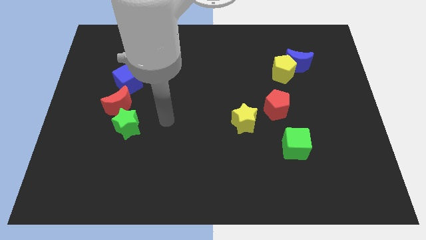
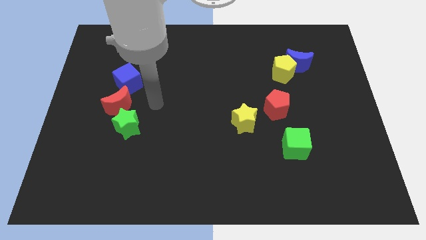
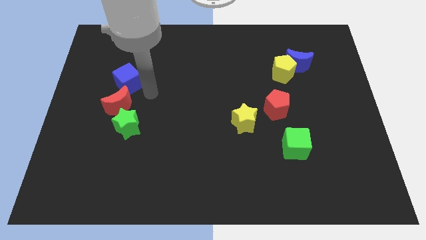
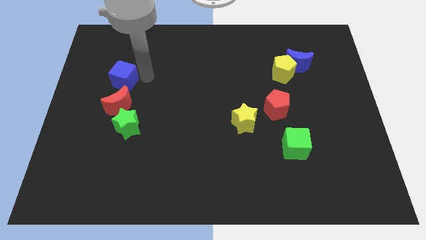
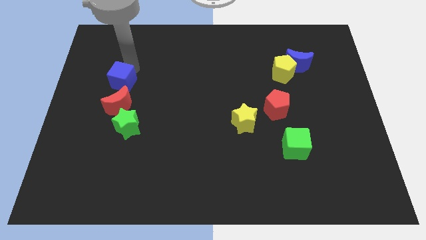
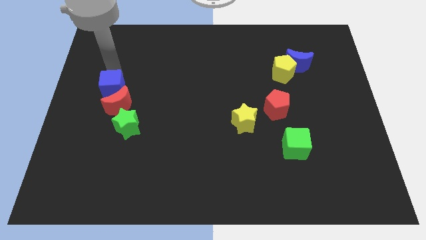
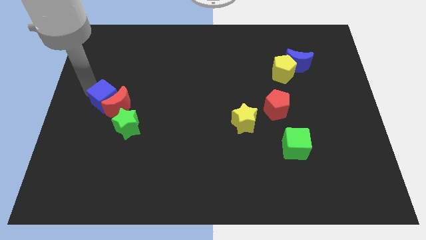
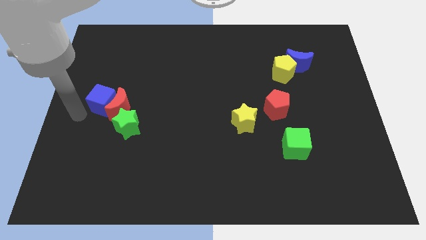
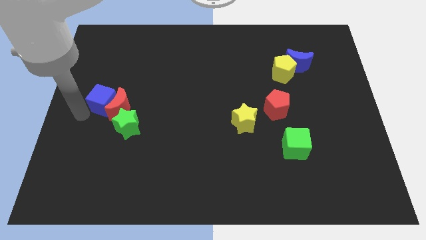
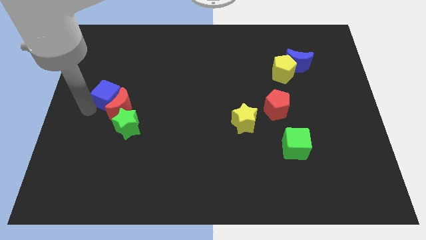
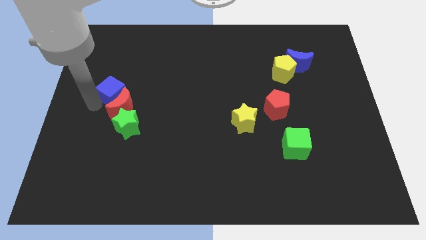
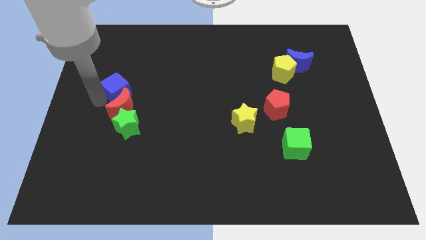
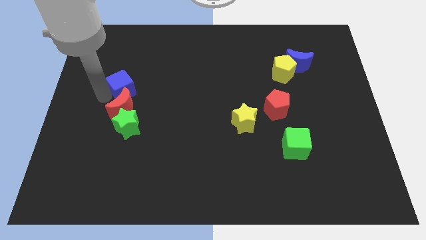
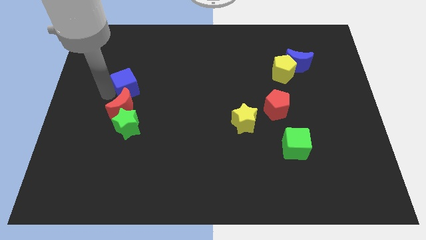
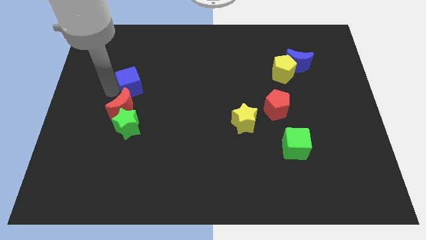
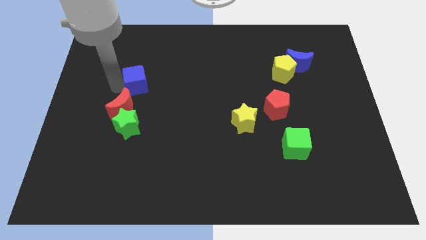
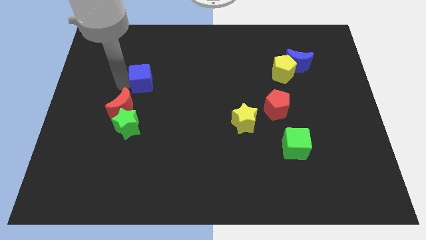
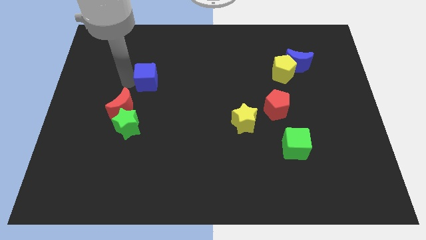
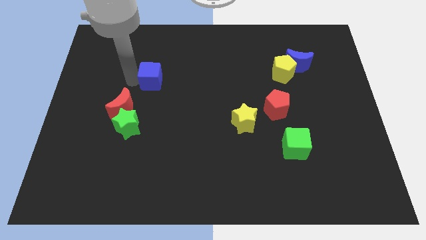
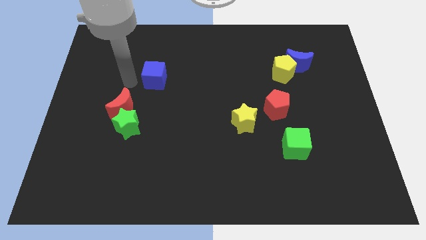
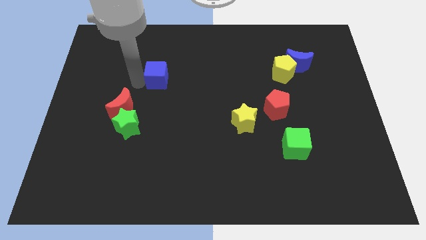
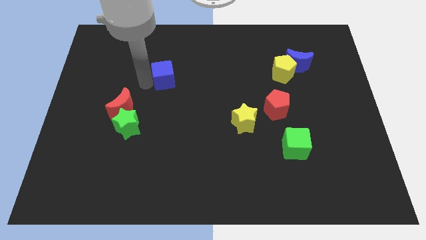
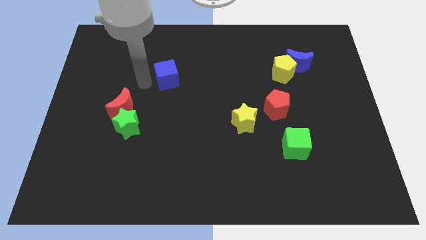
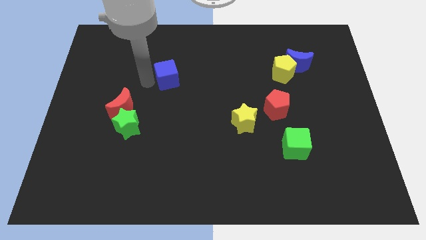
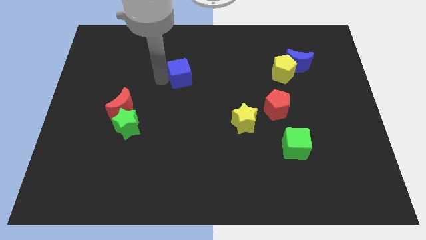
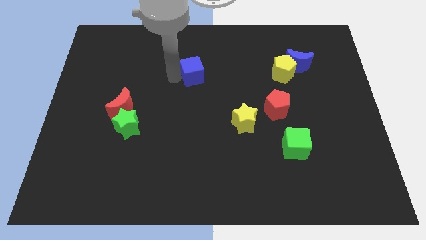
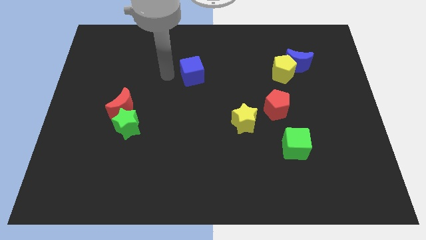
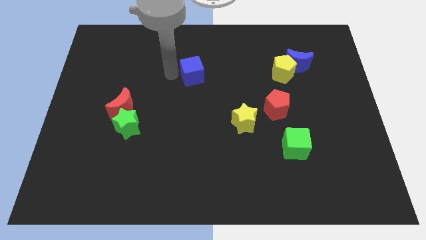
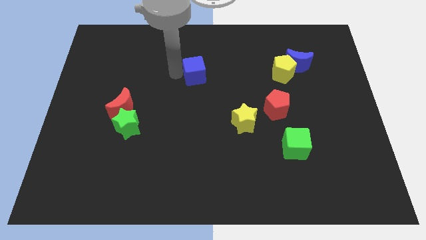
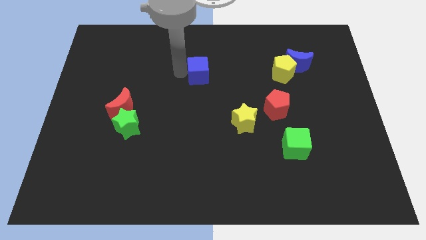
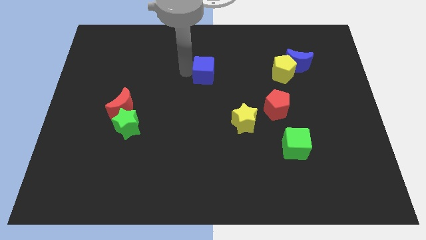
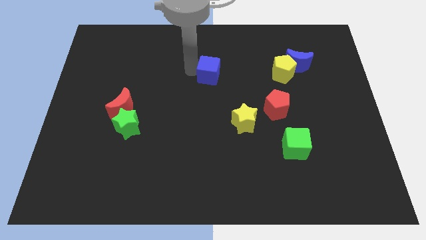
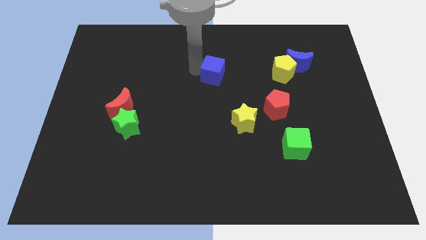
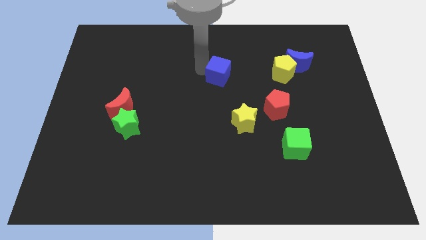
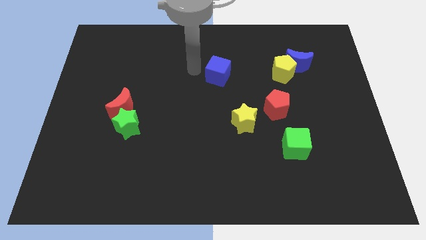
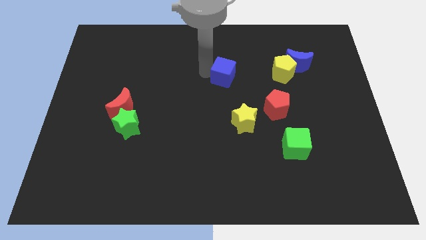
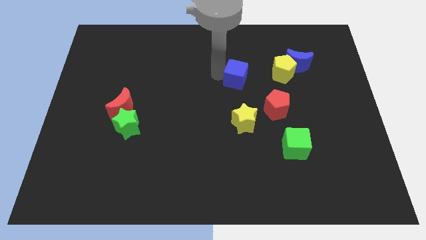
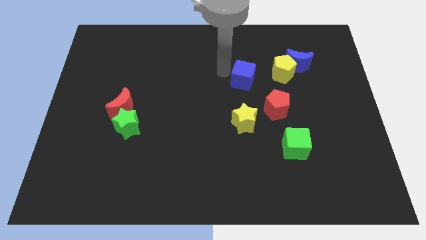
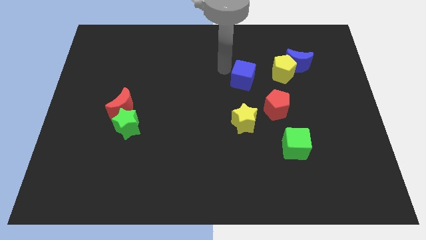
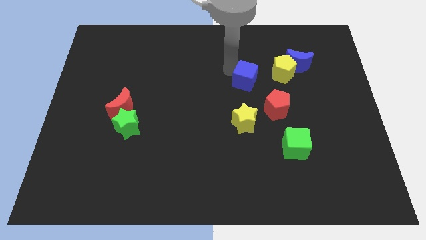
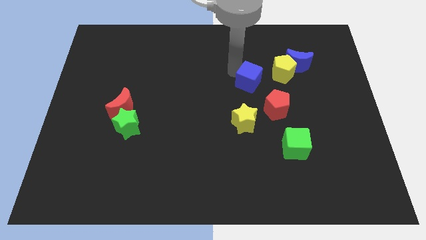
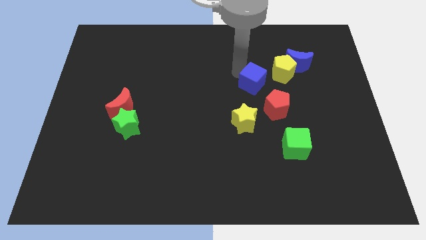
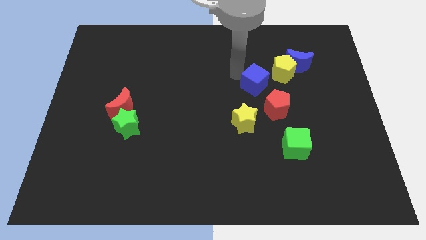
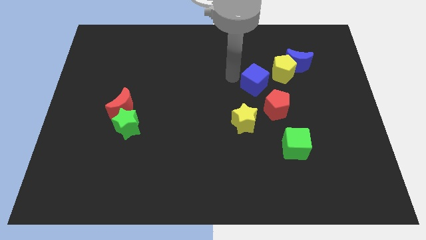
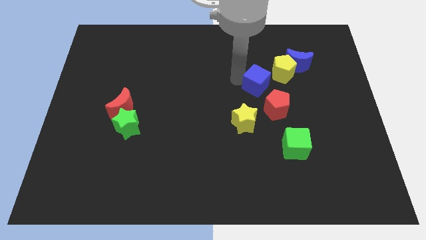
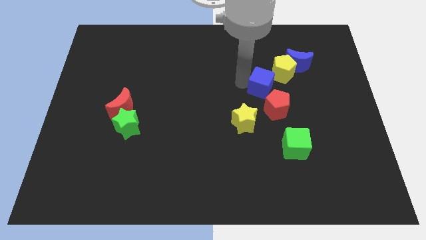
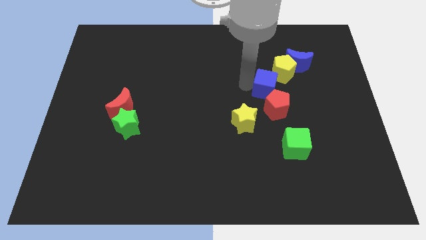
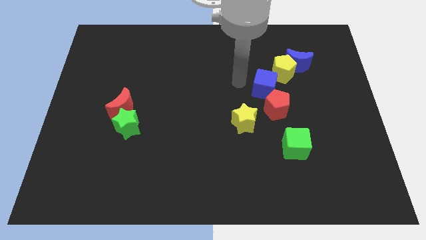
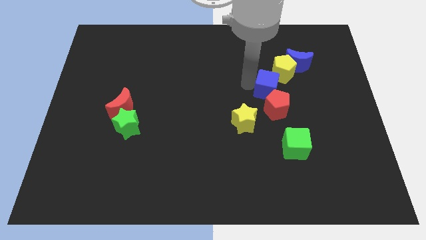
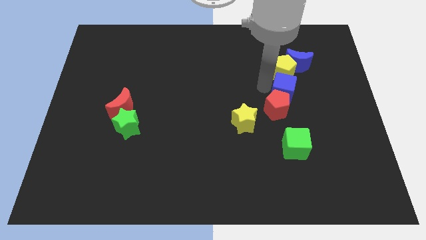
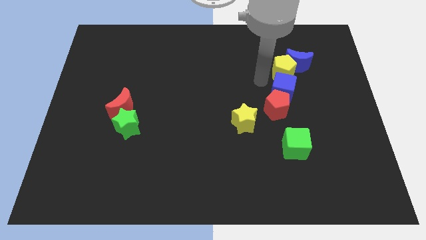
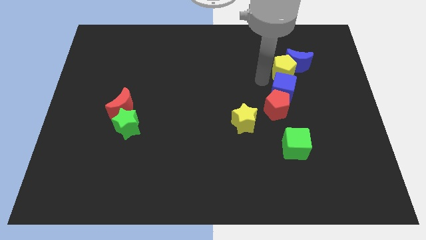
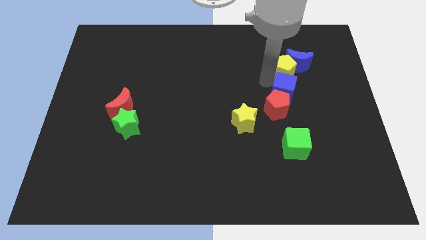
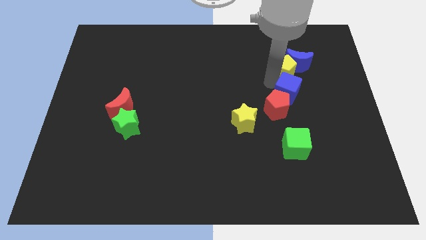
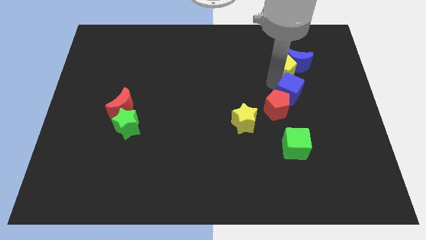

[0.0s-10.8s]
push the blue cube to the right of the red pentagon

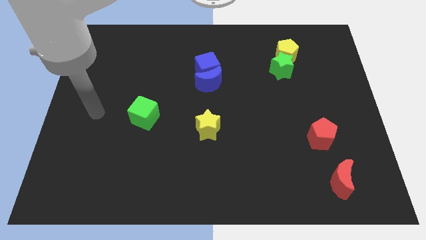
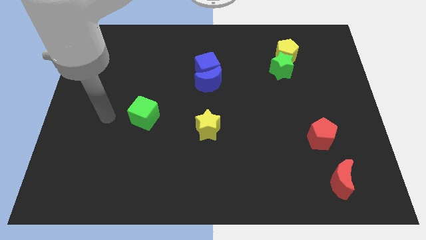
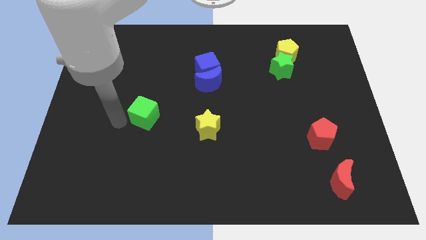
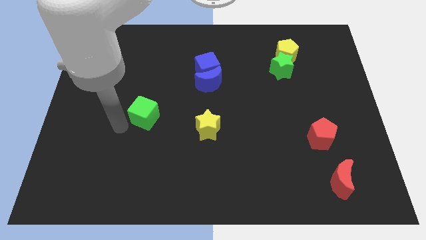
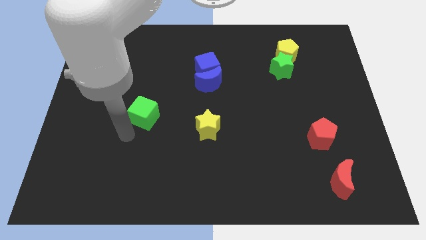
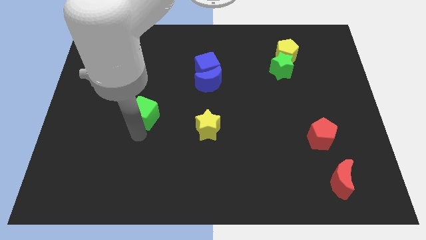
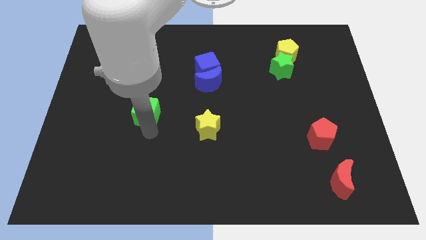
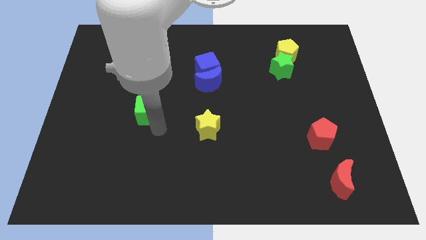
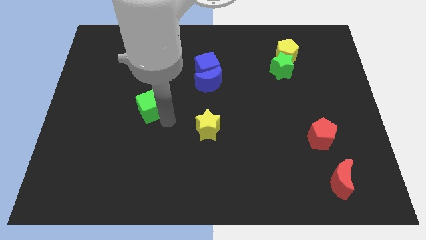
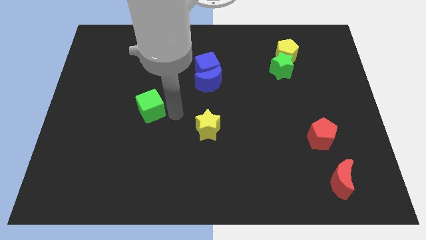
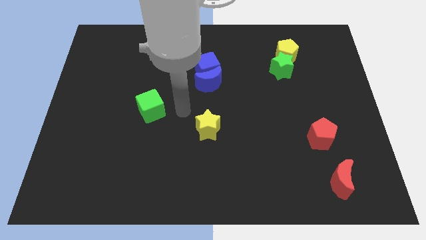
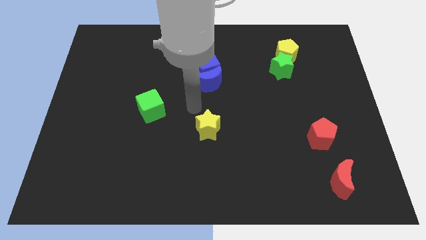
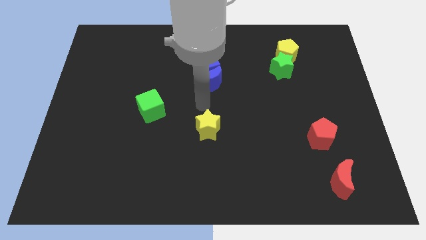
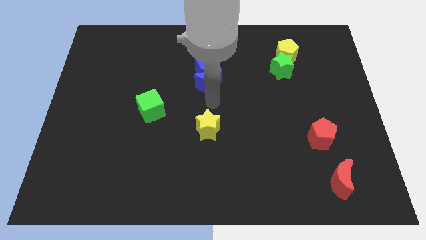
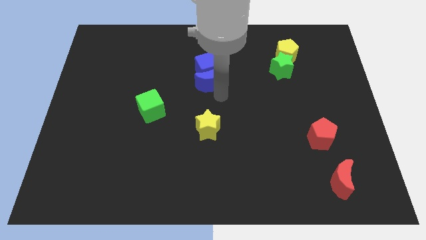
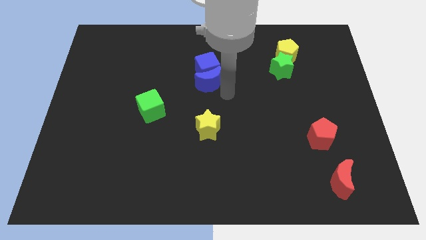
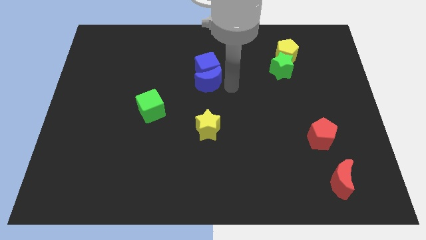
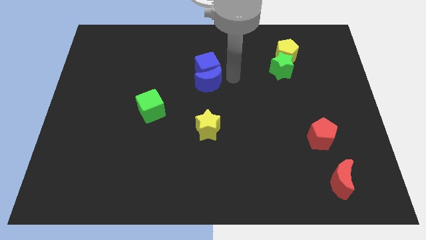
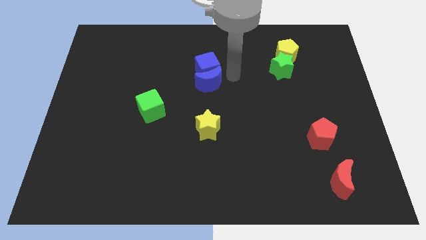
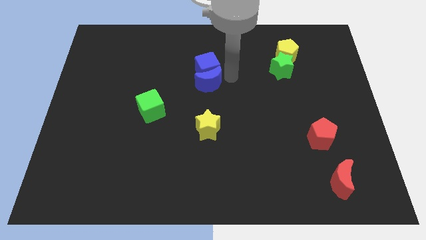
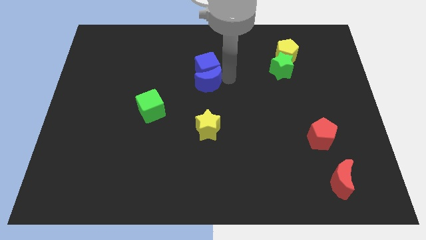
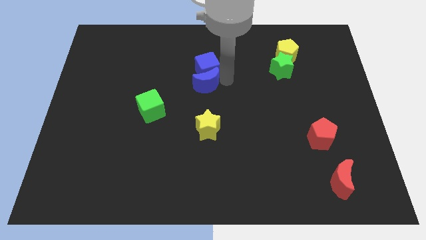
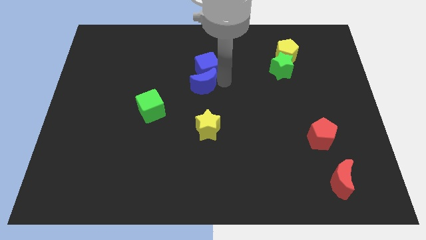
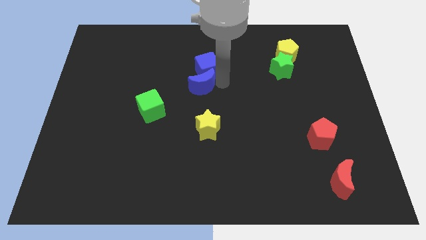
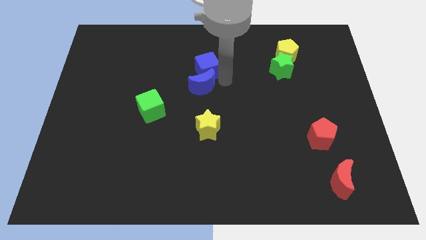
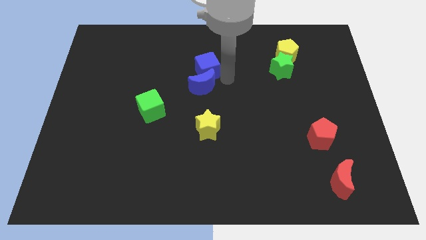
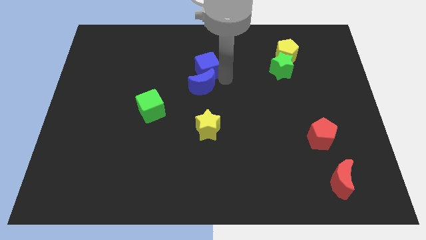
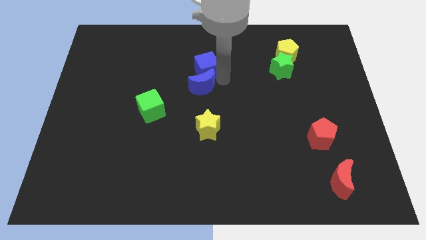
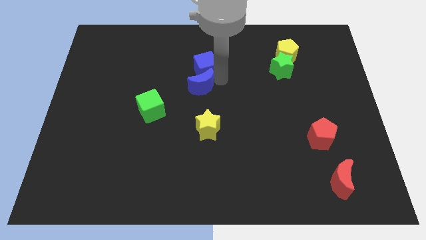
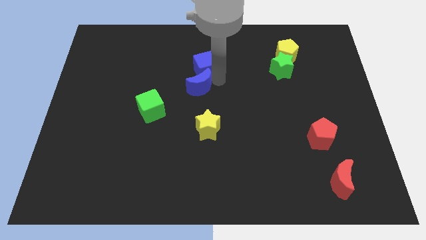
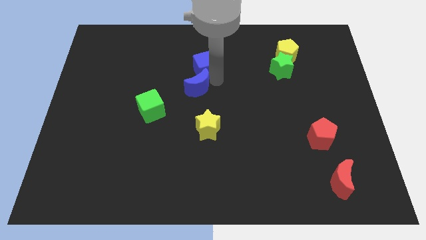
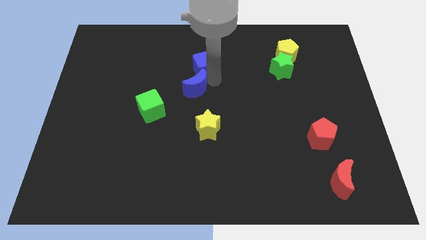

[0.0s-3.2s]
push the blue moon diagonally up and to the right of the green cube
